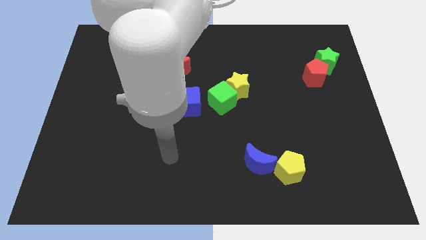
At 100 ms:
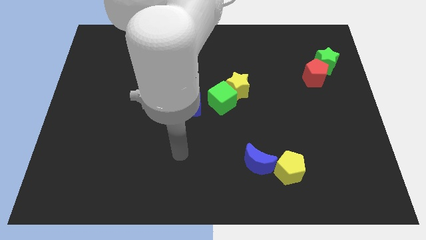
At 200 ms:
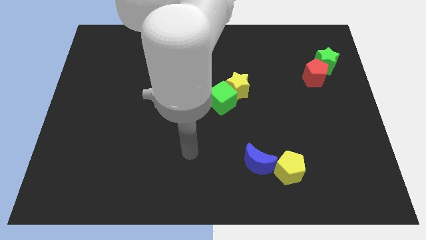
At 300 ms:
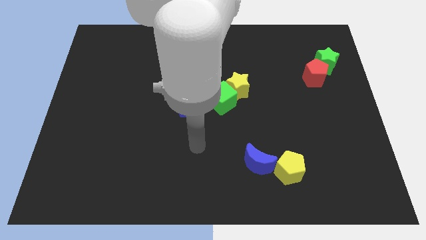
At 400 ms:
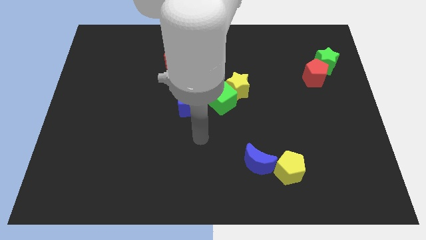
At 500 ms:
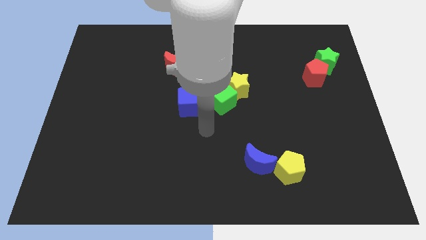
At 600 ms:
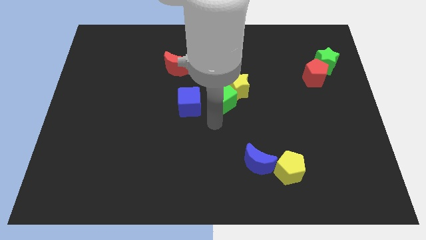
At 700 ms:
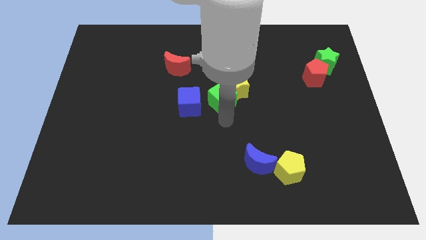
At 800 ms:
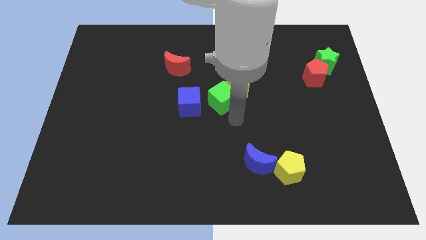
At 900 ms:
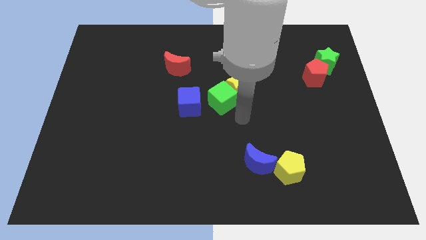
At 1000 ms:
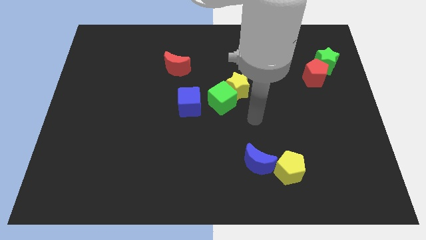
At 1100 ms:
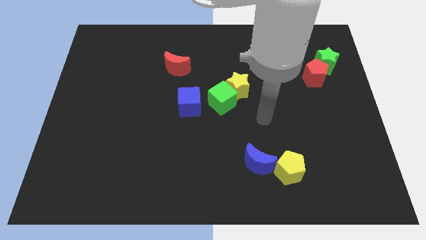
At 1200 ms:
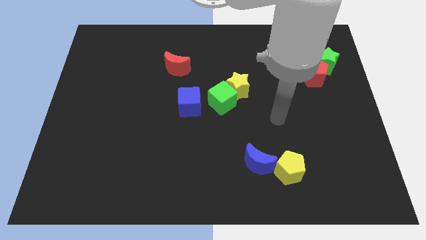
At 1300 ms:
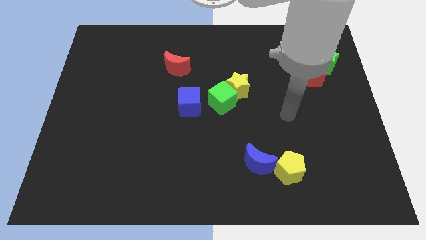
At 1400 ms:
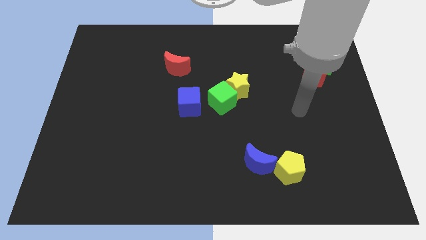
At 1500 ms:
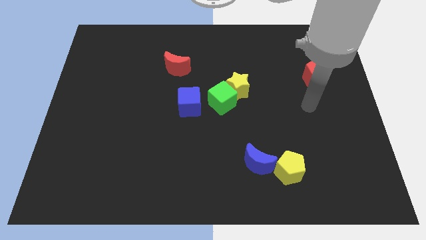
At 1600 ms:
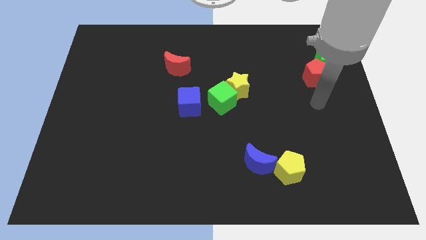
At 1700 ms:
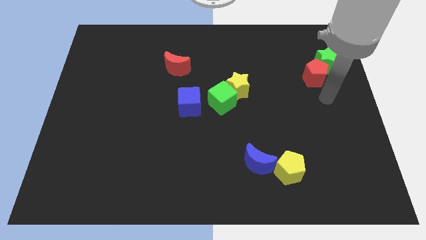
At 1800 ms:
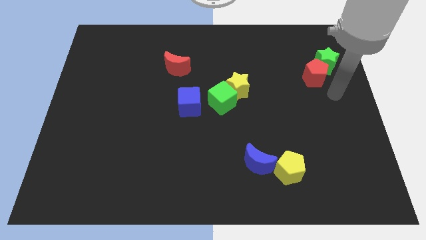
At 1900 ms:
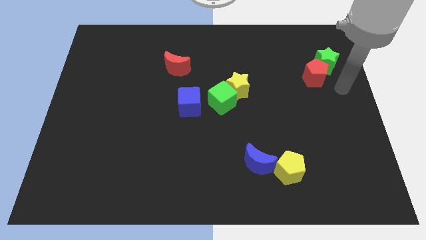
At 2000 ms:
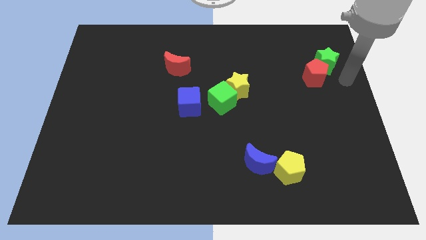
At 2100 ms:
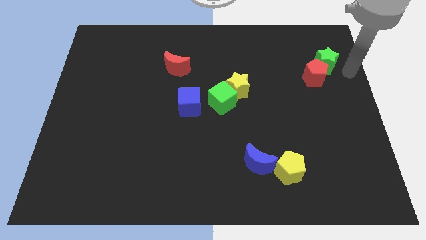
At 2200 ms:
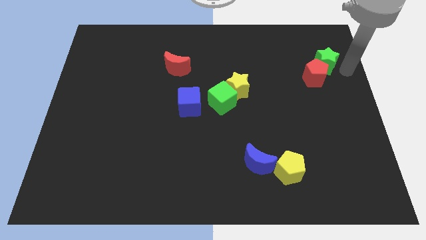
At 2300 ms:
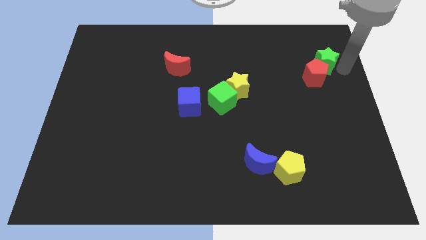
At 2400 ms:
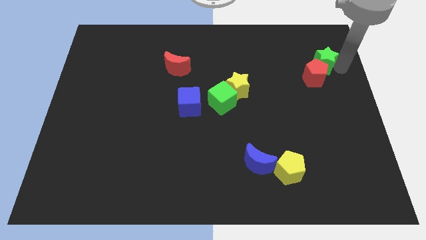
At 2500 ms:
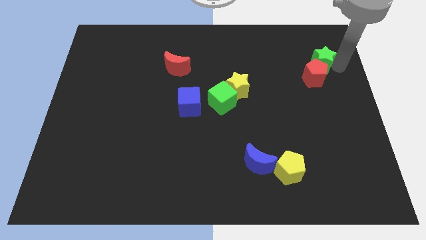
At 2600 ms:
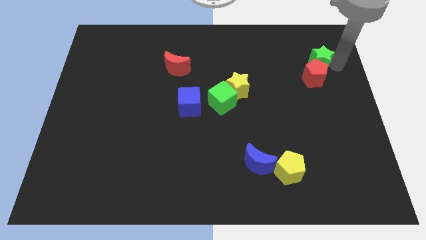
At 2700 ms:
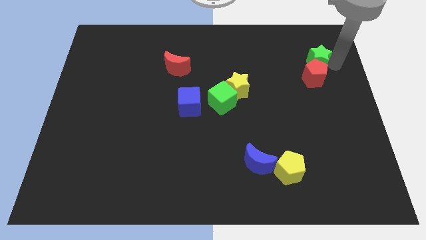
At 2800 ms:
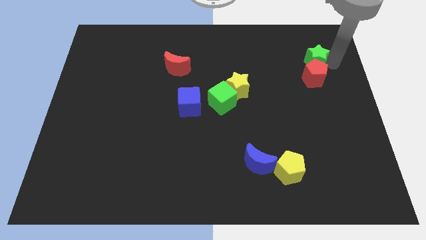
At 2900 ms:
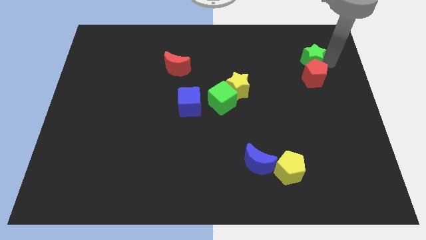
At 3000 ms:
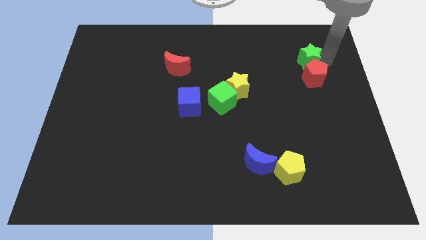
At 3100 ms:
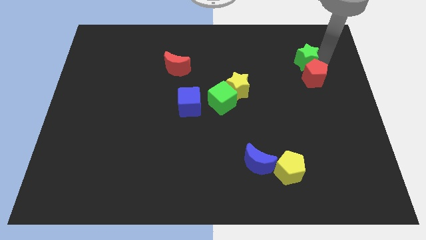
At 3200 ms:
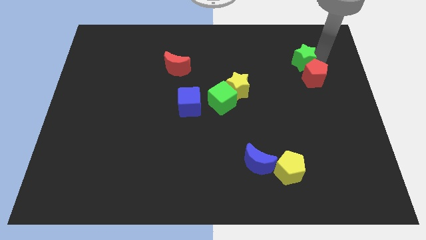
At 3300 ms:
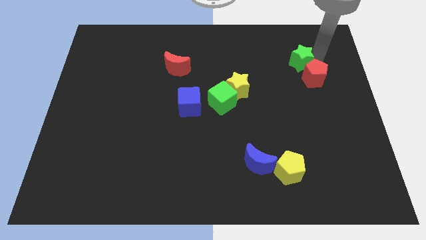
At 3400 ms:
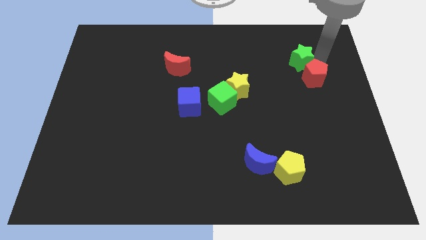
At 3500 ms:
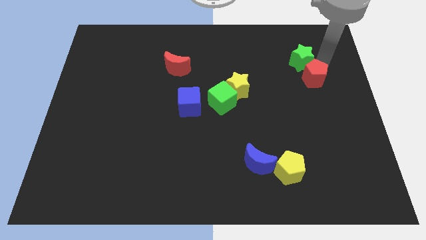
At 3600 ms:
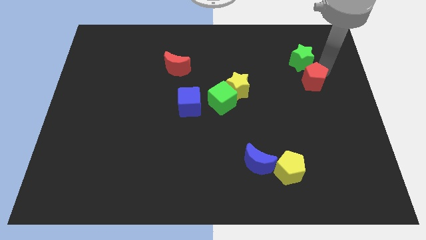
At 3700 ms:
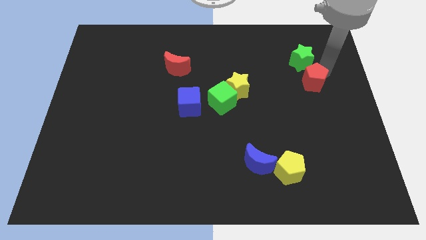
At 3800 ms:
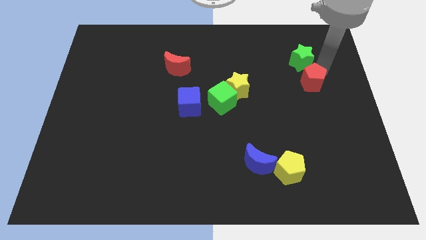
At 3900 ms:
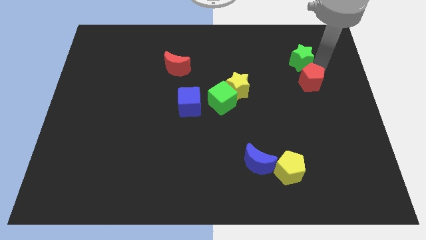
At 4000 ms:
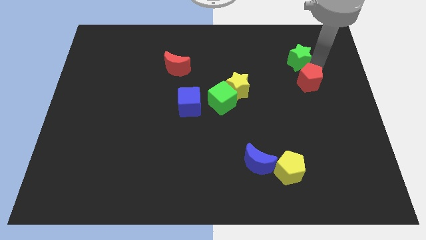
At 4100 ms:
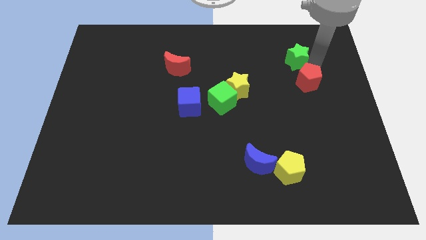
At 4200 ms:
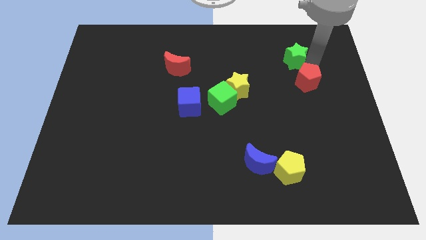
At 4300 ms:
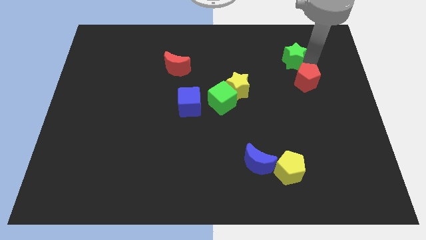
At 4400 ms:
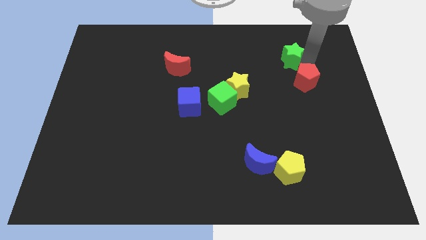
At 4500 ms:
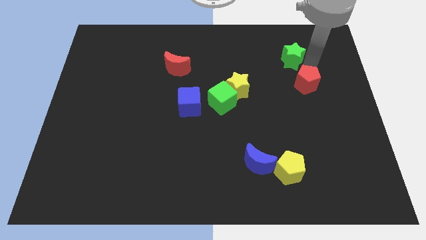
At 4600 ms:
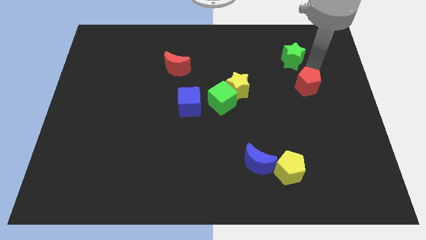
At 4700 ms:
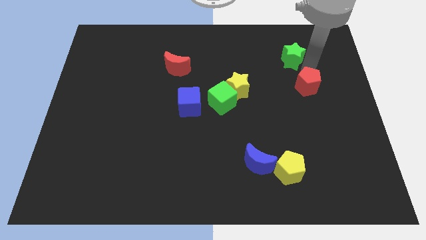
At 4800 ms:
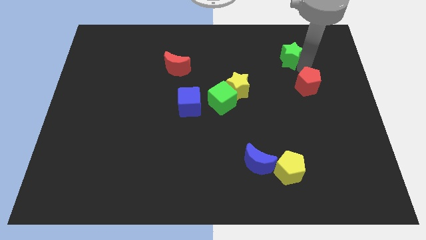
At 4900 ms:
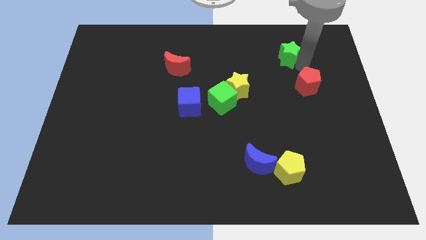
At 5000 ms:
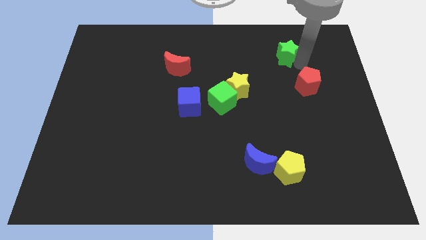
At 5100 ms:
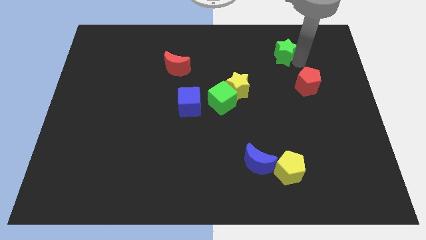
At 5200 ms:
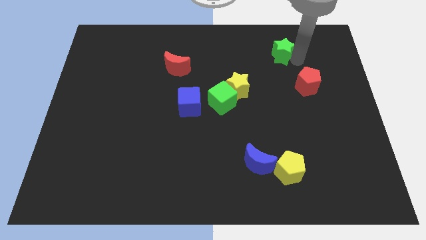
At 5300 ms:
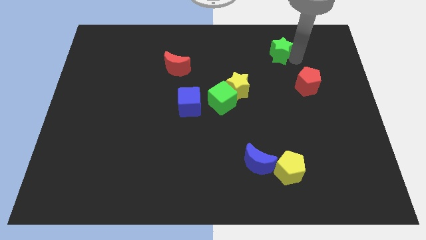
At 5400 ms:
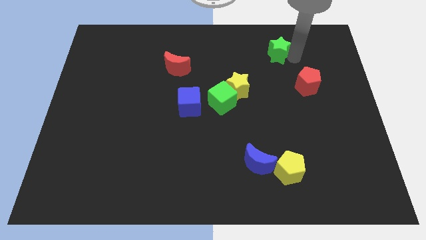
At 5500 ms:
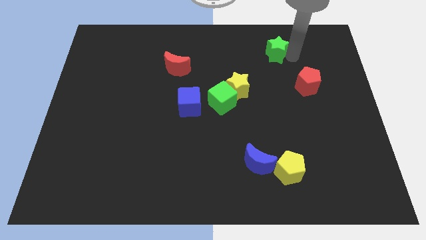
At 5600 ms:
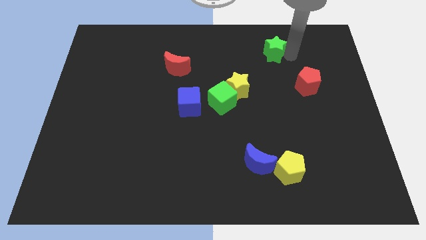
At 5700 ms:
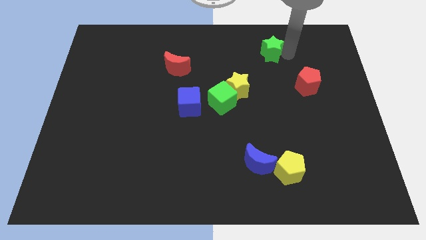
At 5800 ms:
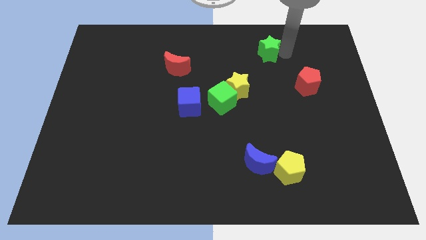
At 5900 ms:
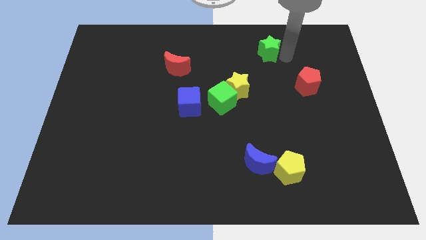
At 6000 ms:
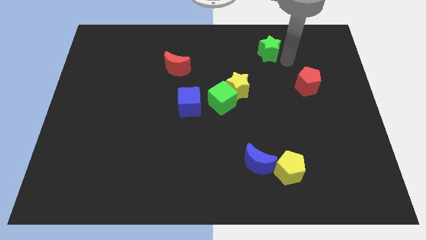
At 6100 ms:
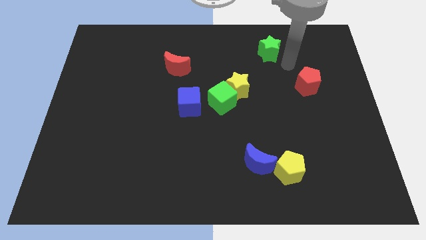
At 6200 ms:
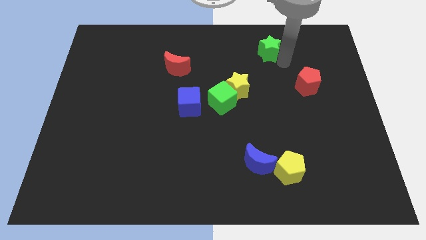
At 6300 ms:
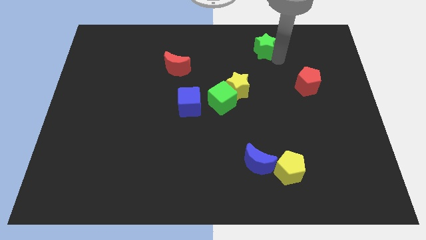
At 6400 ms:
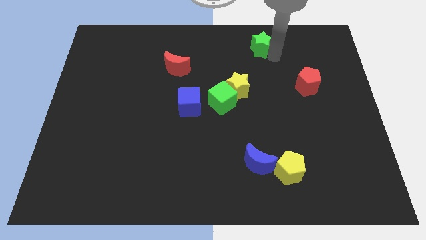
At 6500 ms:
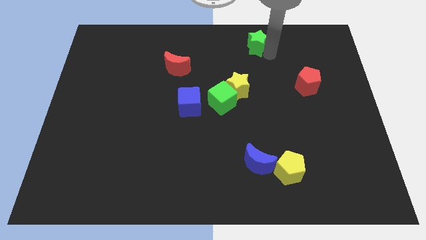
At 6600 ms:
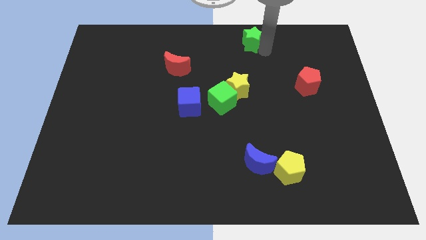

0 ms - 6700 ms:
move the green star to the top side
